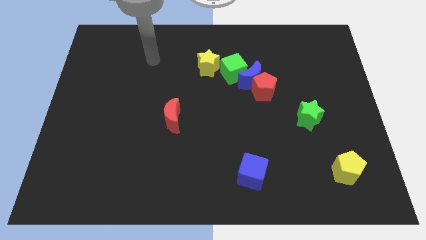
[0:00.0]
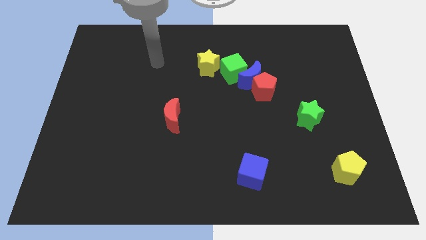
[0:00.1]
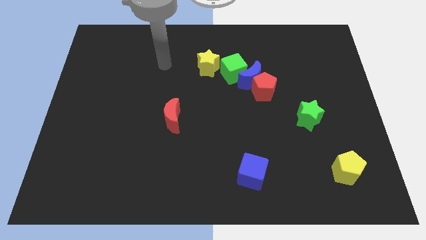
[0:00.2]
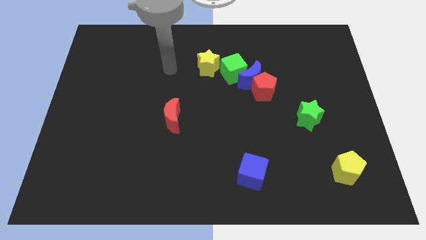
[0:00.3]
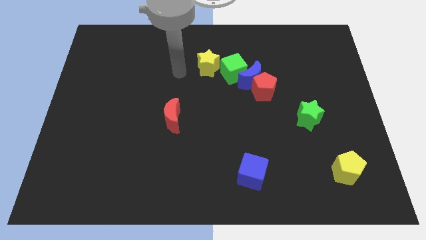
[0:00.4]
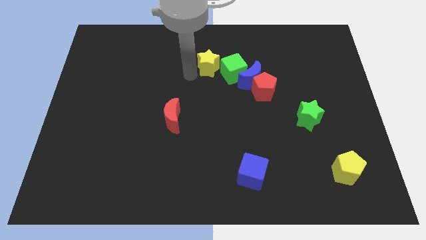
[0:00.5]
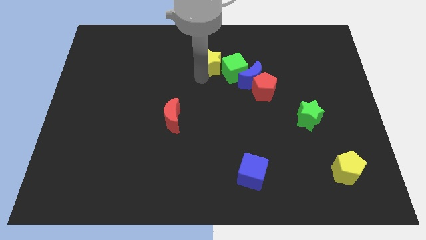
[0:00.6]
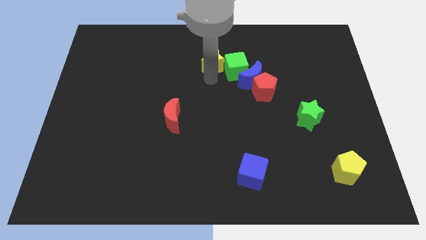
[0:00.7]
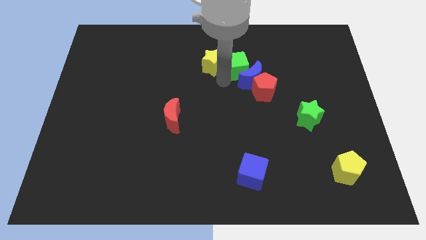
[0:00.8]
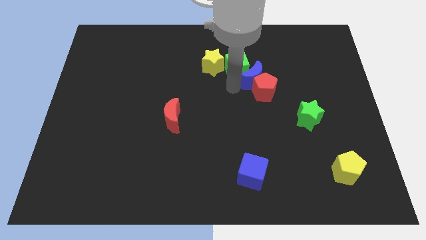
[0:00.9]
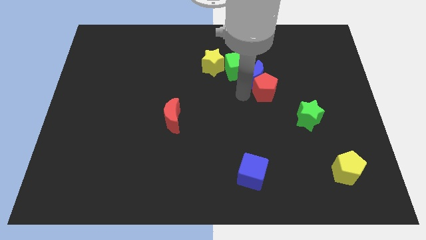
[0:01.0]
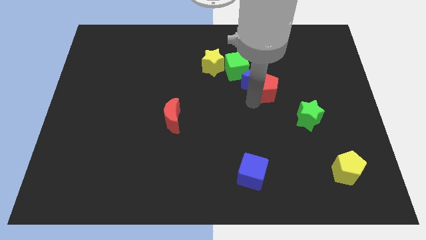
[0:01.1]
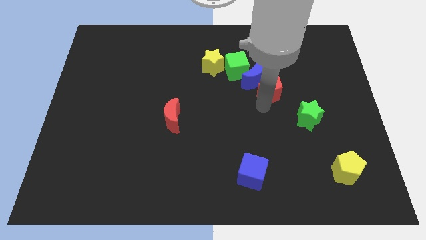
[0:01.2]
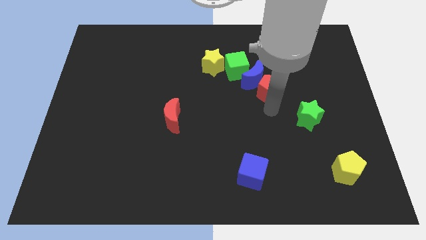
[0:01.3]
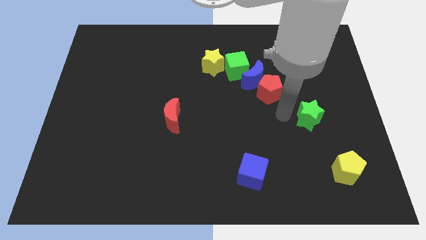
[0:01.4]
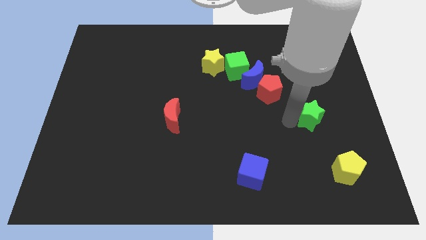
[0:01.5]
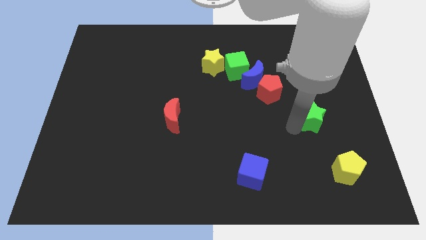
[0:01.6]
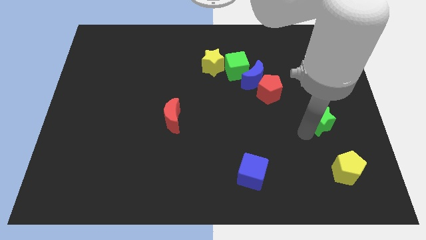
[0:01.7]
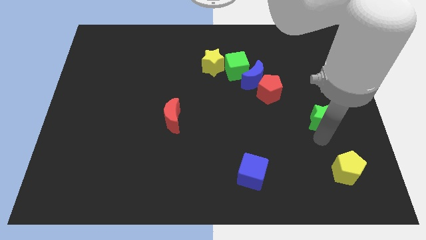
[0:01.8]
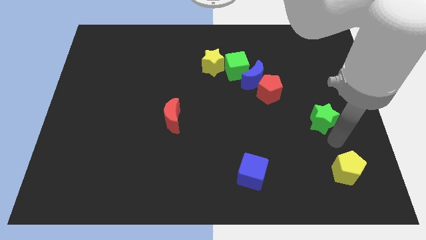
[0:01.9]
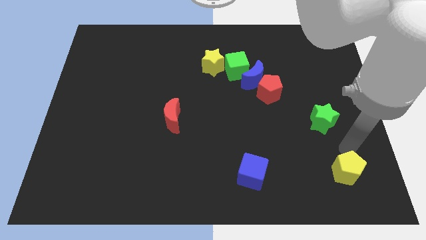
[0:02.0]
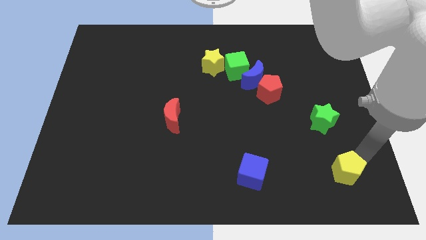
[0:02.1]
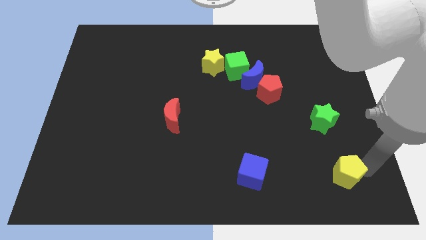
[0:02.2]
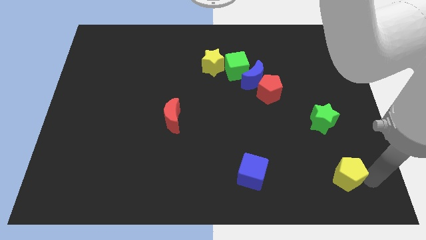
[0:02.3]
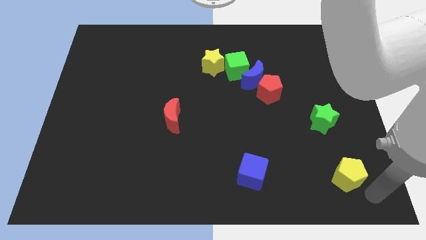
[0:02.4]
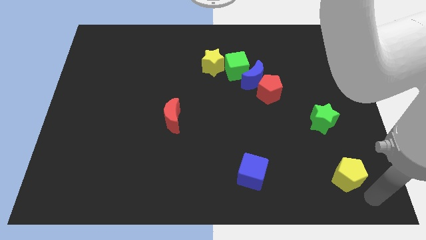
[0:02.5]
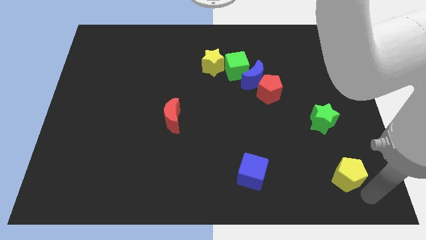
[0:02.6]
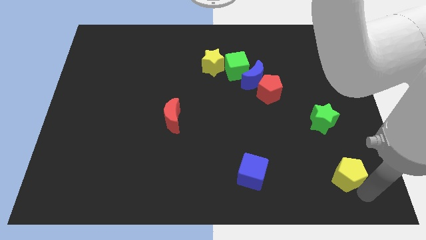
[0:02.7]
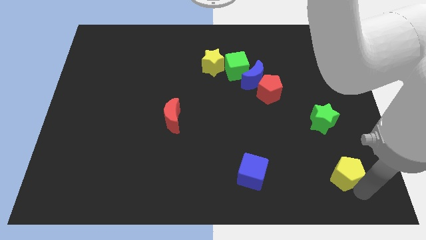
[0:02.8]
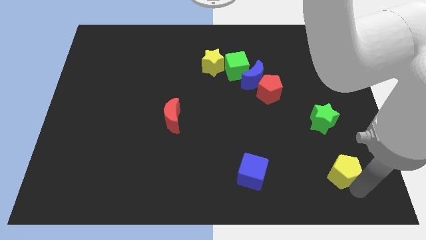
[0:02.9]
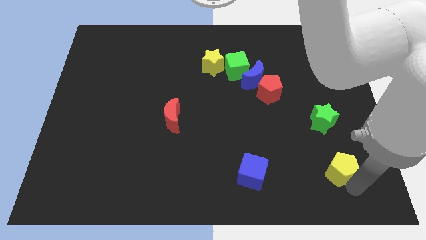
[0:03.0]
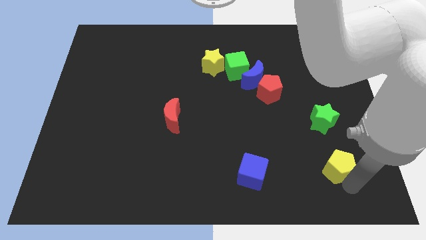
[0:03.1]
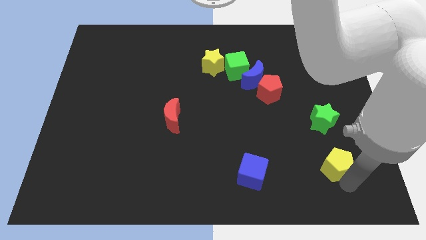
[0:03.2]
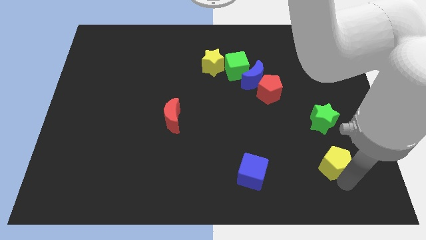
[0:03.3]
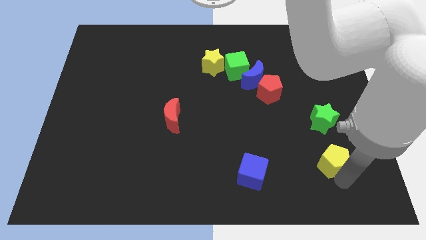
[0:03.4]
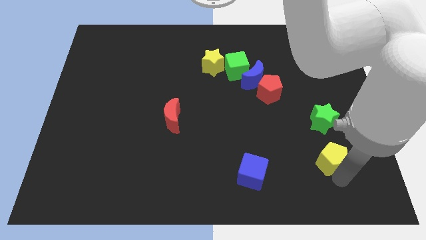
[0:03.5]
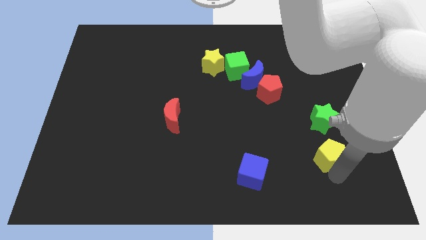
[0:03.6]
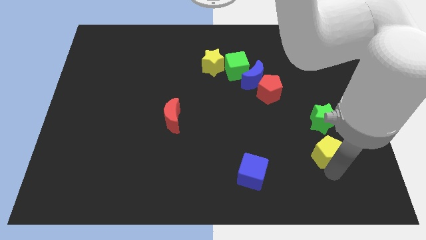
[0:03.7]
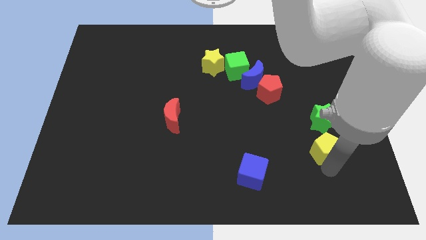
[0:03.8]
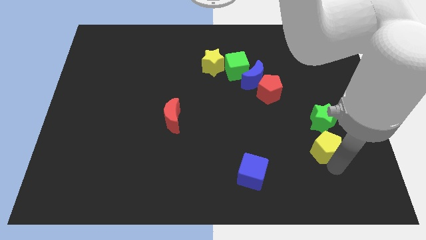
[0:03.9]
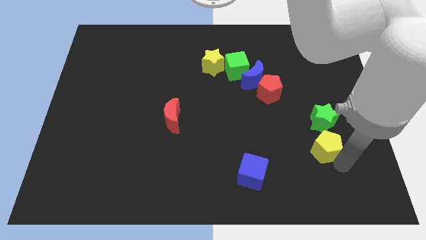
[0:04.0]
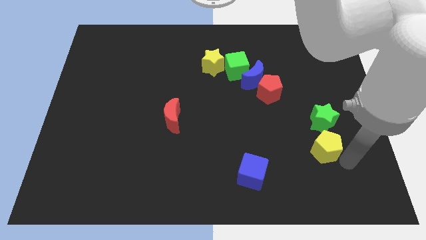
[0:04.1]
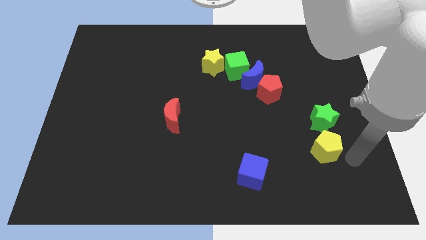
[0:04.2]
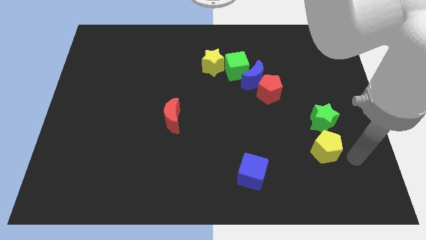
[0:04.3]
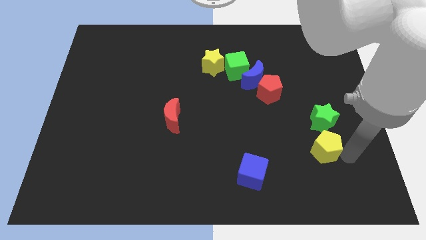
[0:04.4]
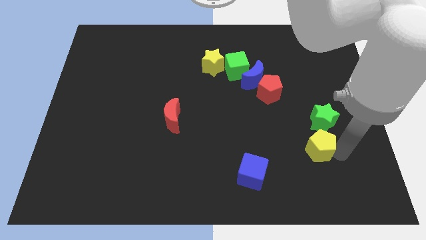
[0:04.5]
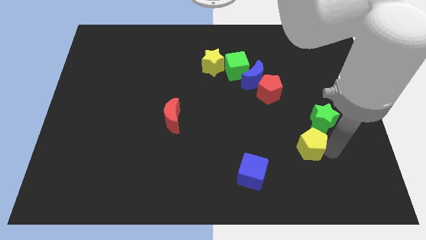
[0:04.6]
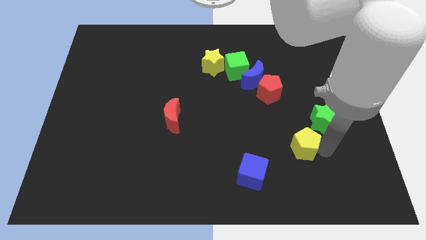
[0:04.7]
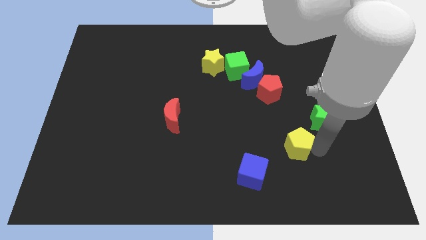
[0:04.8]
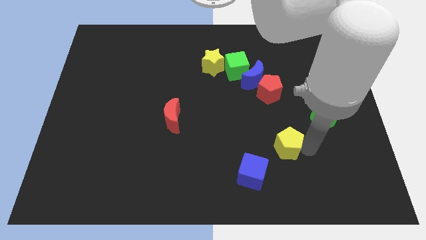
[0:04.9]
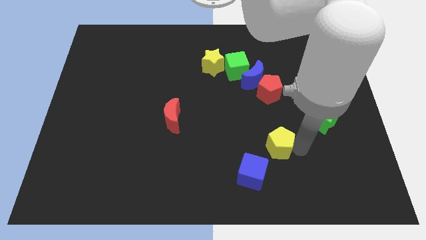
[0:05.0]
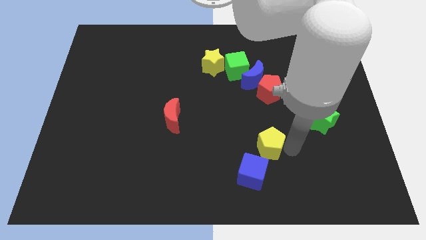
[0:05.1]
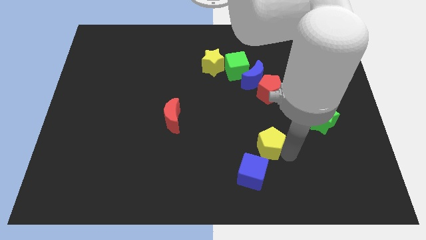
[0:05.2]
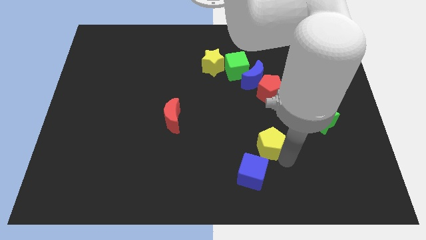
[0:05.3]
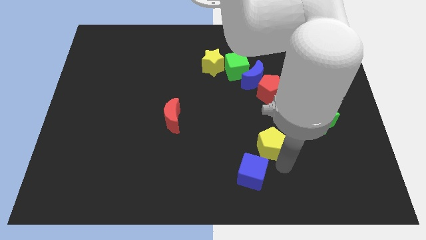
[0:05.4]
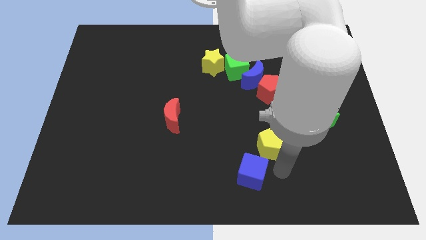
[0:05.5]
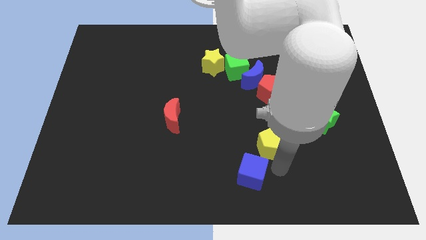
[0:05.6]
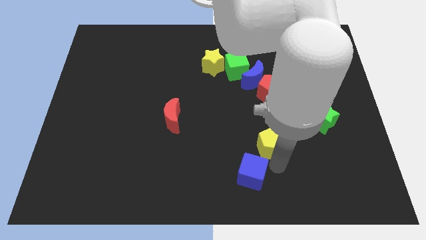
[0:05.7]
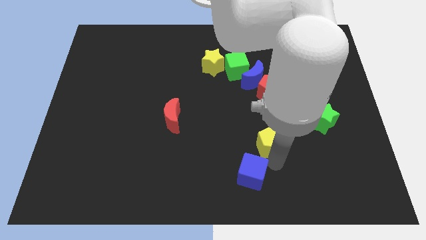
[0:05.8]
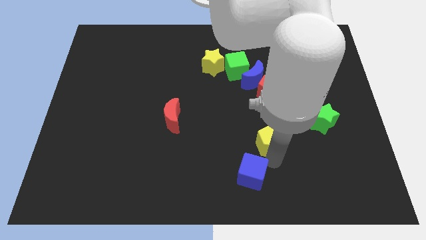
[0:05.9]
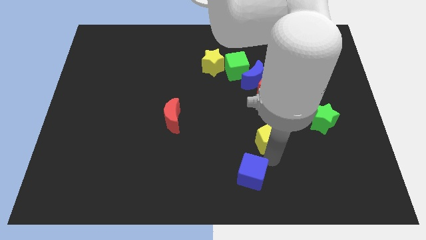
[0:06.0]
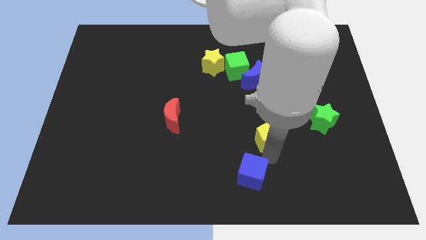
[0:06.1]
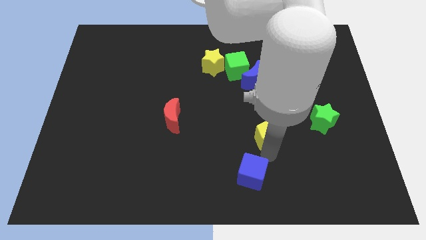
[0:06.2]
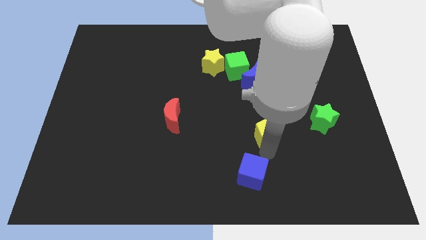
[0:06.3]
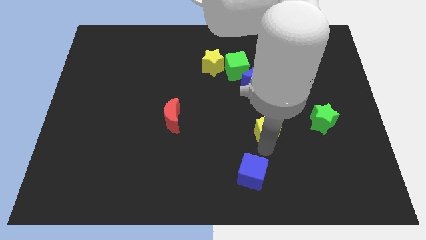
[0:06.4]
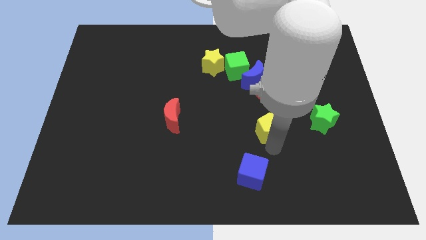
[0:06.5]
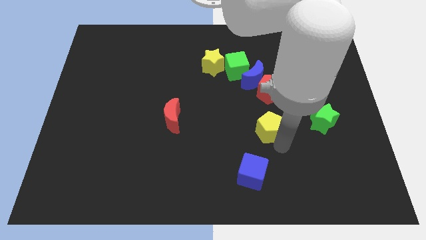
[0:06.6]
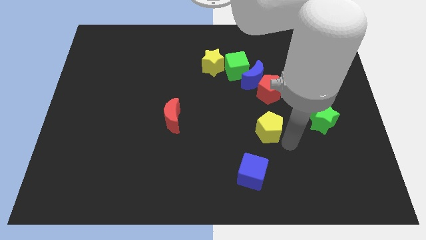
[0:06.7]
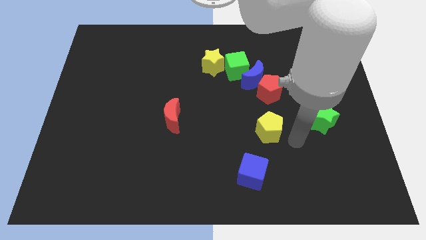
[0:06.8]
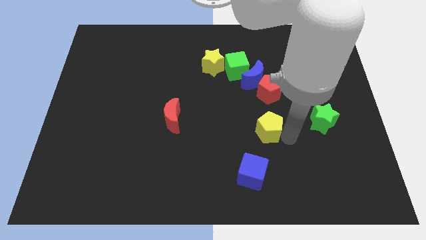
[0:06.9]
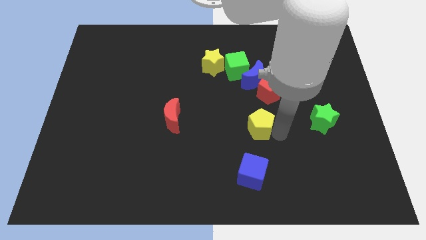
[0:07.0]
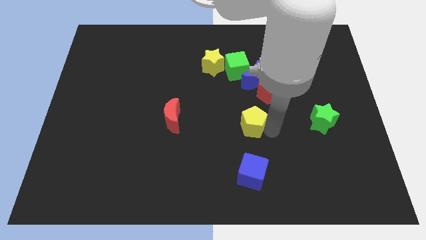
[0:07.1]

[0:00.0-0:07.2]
slide the yellow pentagon to the center of the board

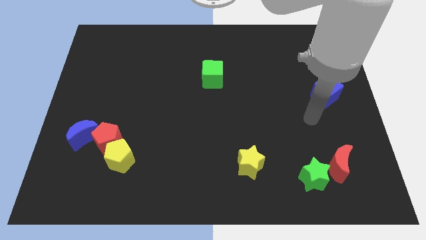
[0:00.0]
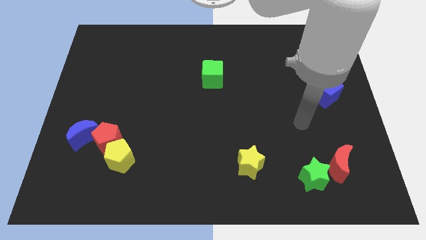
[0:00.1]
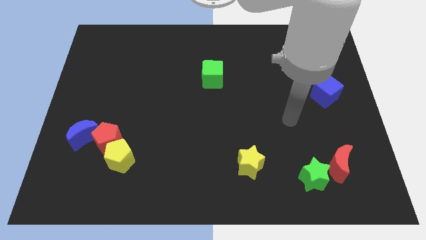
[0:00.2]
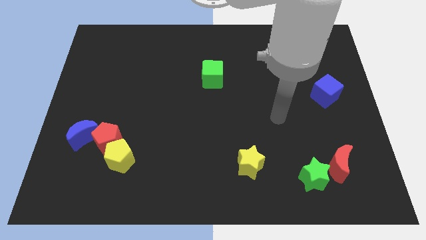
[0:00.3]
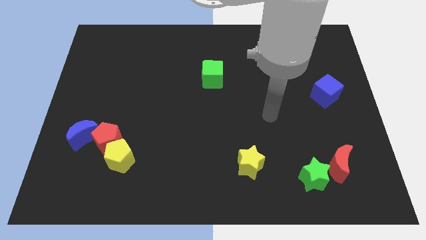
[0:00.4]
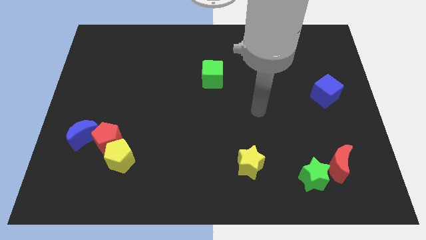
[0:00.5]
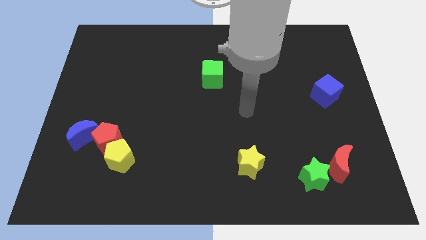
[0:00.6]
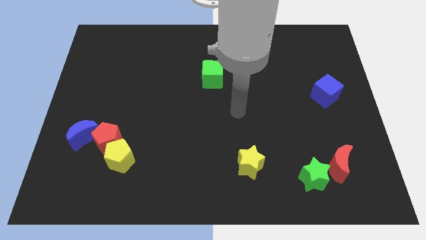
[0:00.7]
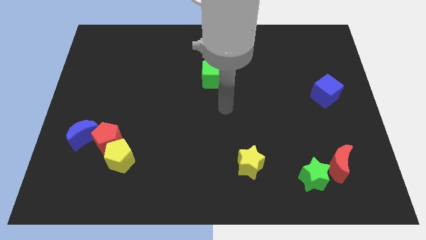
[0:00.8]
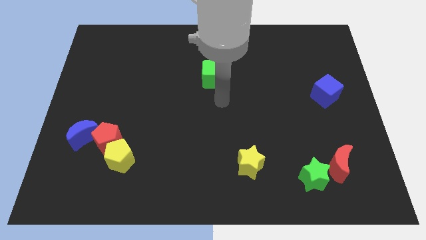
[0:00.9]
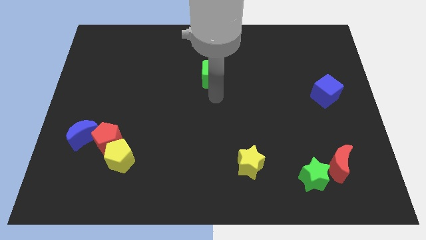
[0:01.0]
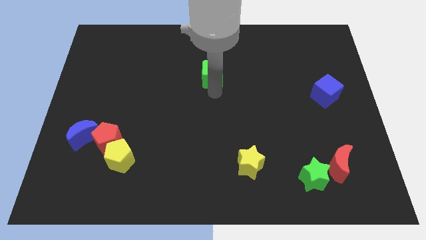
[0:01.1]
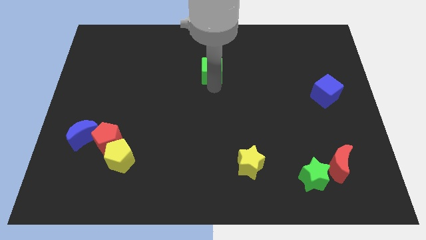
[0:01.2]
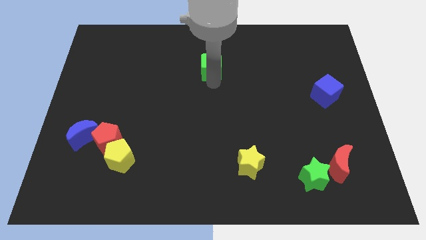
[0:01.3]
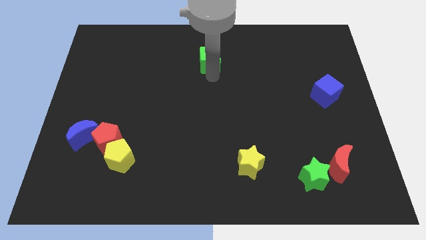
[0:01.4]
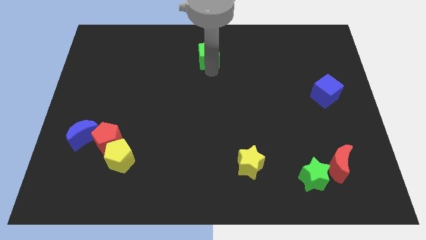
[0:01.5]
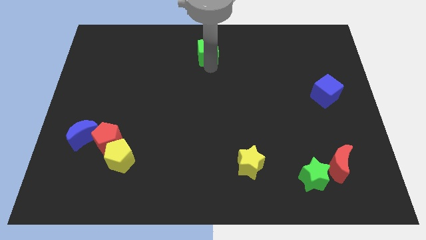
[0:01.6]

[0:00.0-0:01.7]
push the green cube to the towards your base
